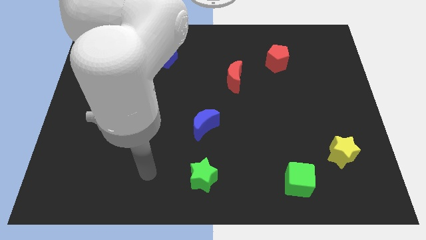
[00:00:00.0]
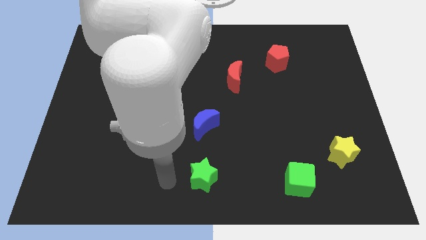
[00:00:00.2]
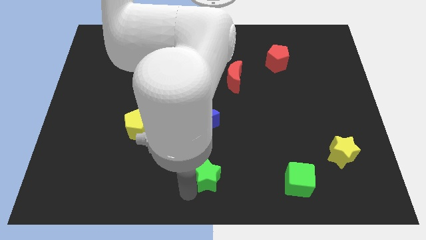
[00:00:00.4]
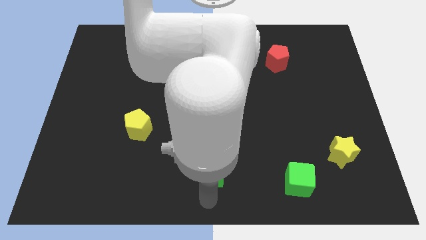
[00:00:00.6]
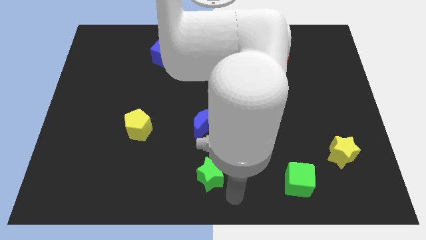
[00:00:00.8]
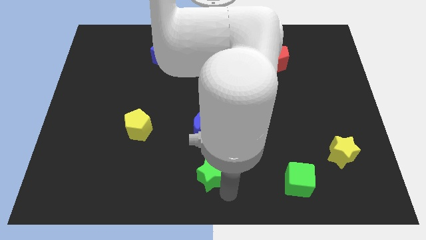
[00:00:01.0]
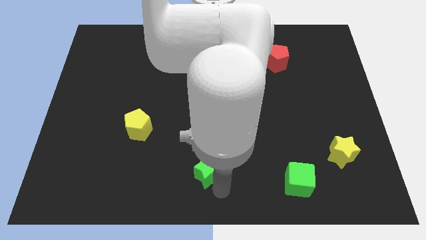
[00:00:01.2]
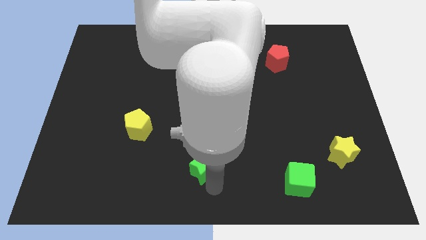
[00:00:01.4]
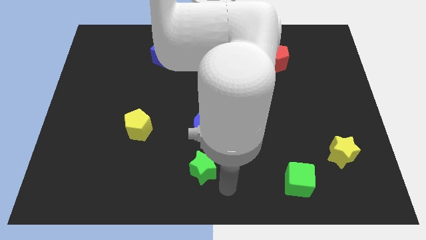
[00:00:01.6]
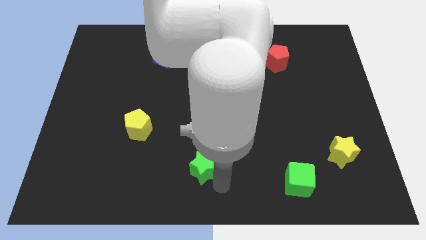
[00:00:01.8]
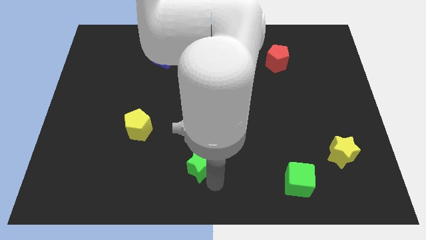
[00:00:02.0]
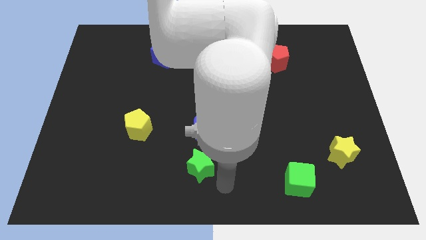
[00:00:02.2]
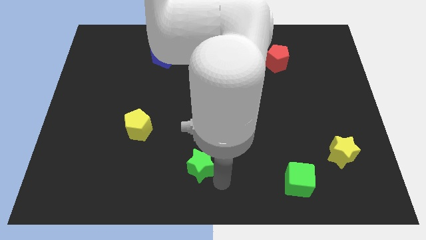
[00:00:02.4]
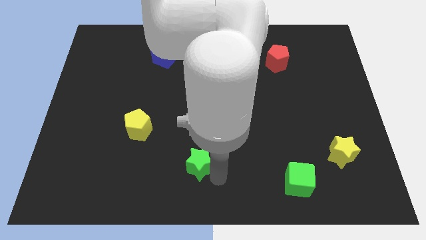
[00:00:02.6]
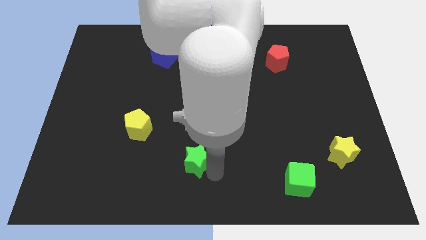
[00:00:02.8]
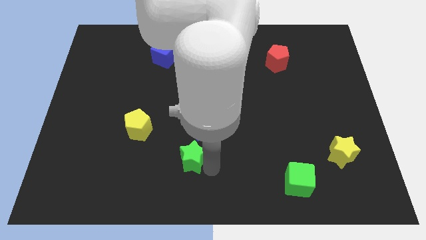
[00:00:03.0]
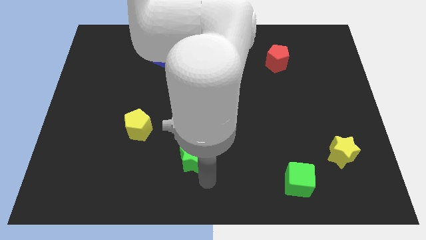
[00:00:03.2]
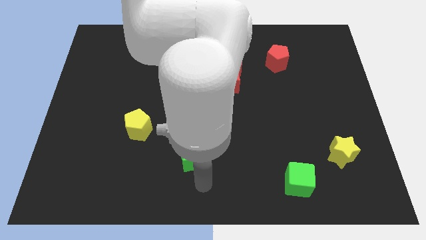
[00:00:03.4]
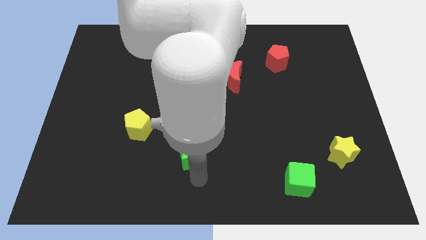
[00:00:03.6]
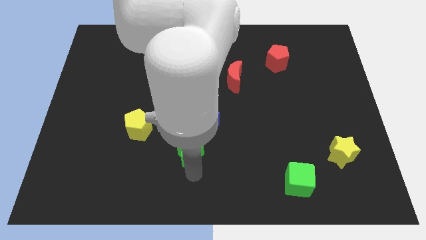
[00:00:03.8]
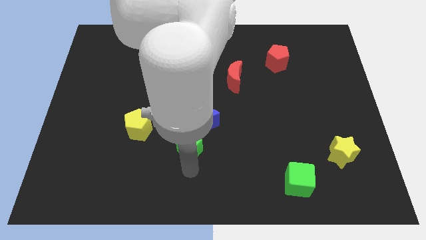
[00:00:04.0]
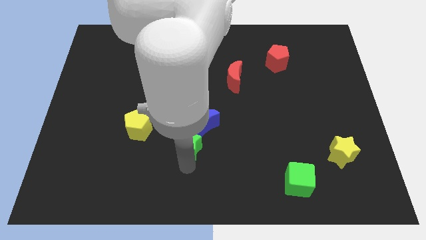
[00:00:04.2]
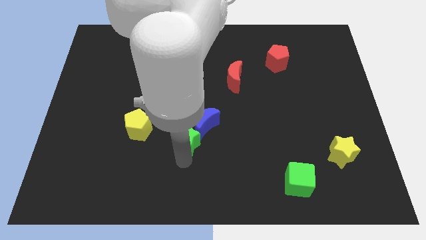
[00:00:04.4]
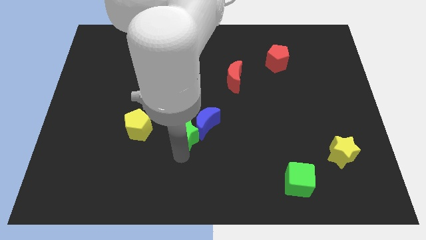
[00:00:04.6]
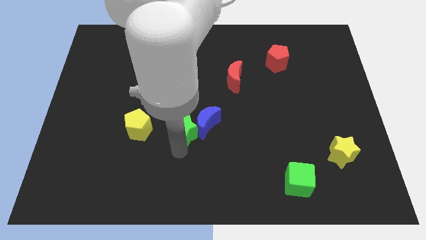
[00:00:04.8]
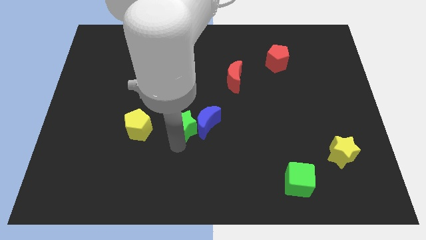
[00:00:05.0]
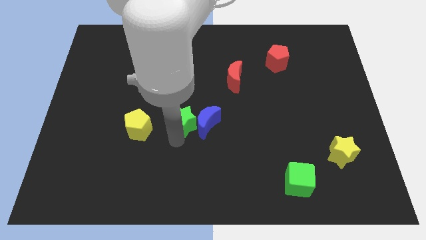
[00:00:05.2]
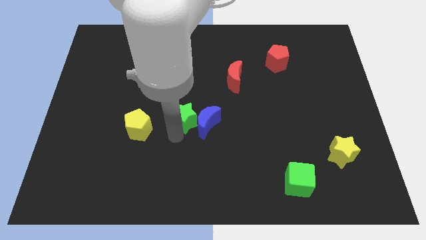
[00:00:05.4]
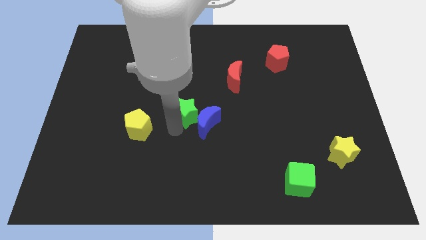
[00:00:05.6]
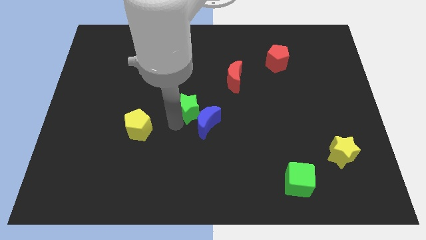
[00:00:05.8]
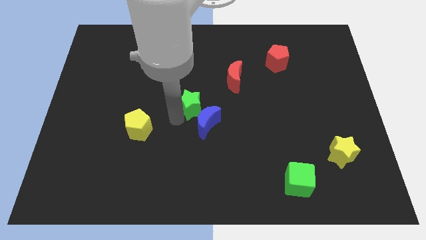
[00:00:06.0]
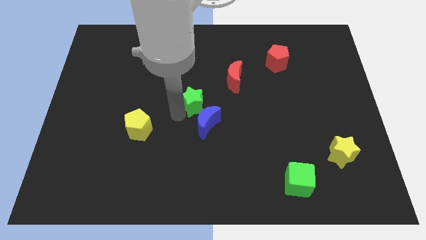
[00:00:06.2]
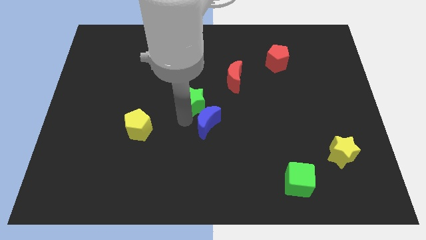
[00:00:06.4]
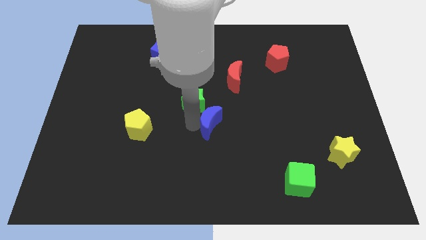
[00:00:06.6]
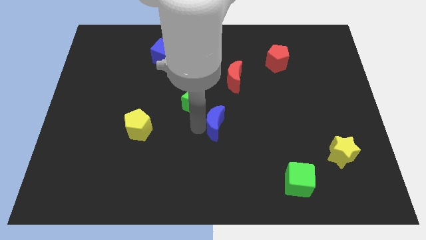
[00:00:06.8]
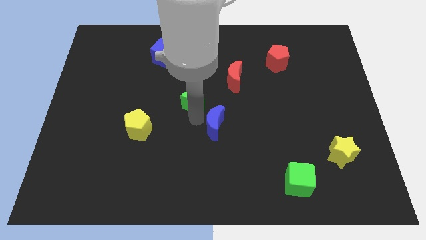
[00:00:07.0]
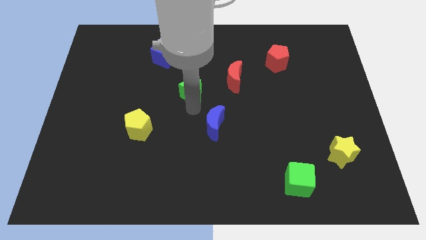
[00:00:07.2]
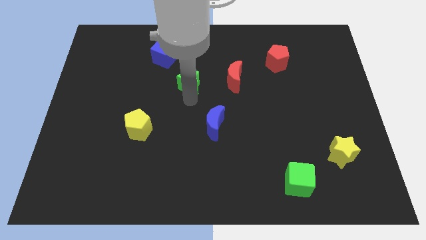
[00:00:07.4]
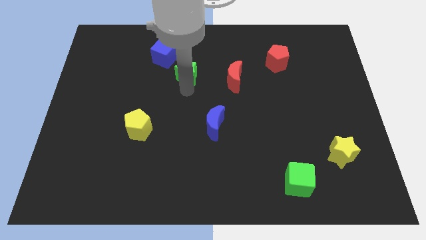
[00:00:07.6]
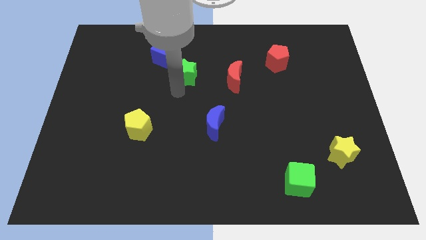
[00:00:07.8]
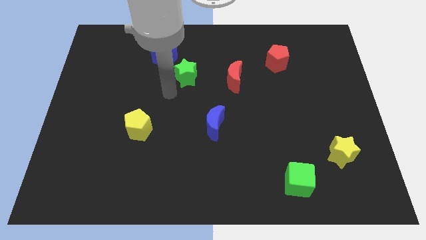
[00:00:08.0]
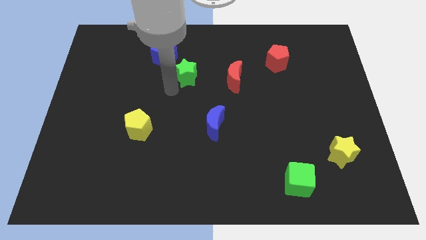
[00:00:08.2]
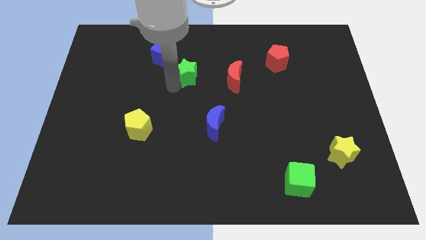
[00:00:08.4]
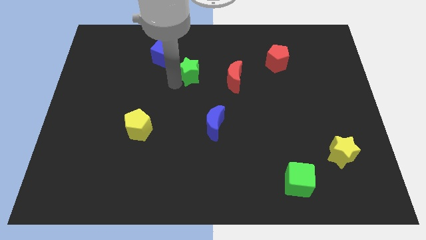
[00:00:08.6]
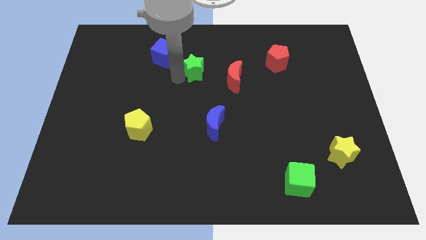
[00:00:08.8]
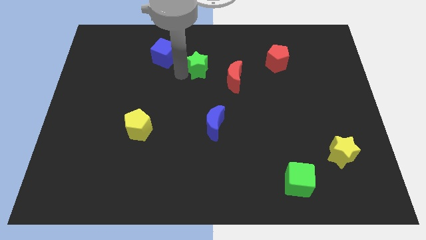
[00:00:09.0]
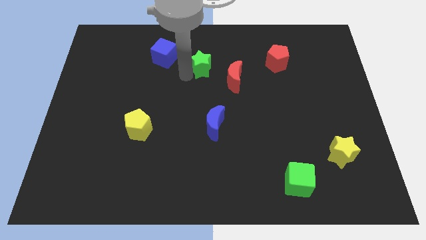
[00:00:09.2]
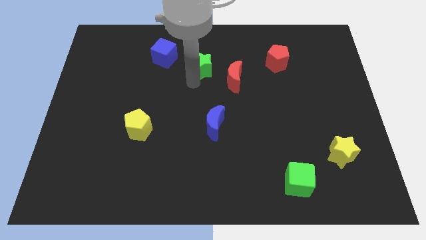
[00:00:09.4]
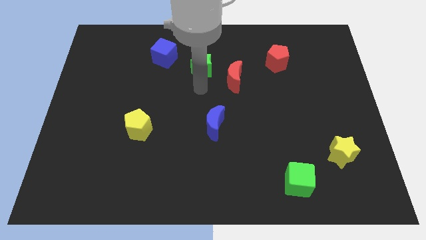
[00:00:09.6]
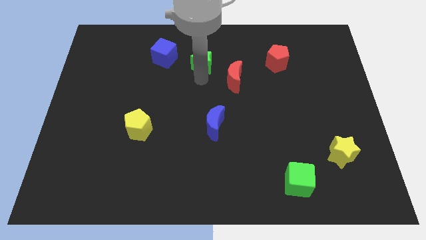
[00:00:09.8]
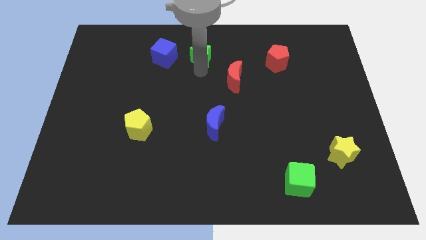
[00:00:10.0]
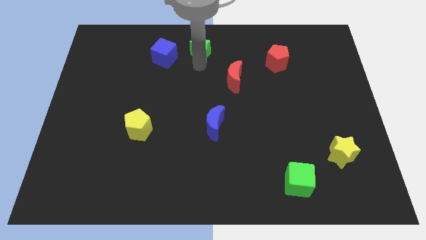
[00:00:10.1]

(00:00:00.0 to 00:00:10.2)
push the green star to the top side
